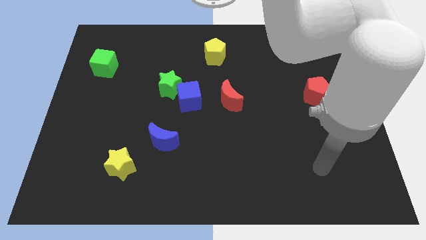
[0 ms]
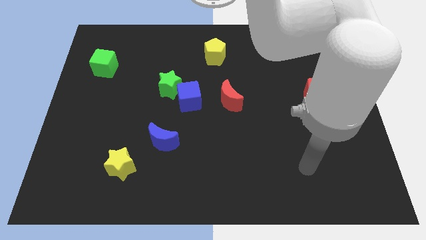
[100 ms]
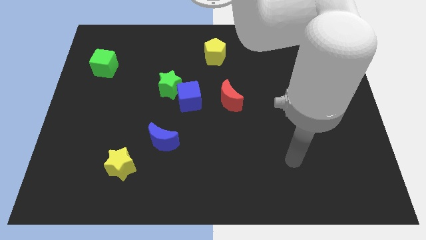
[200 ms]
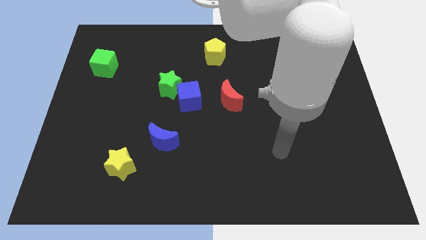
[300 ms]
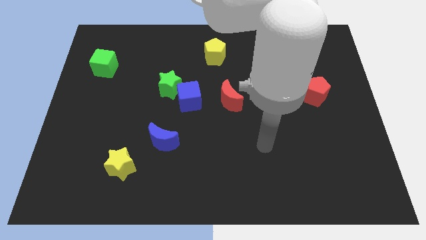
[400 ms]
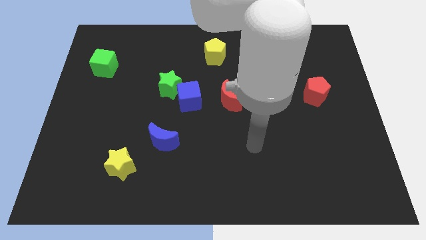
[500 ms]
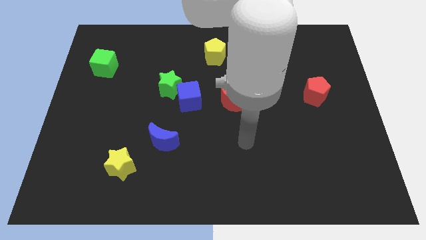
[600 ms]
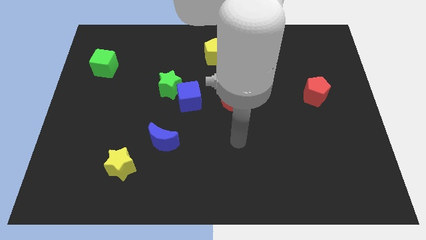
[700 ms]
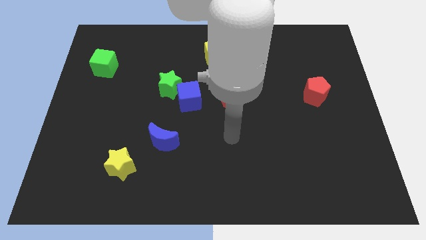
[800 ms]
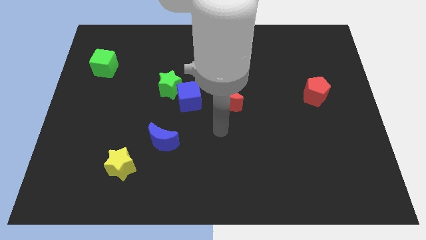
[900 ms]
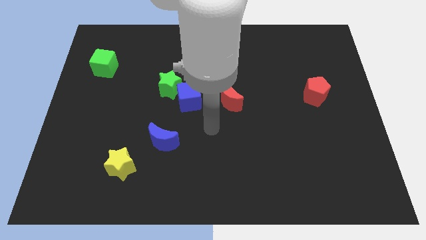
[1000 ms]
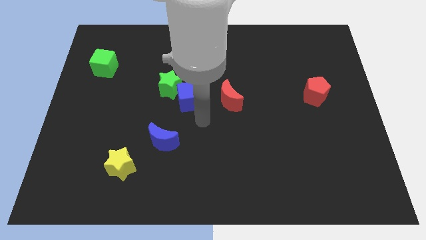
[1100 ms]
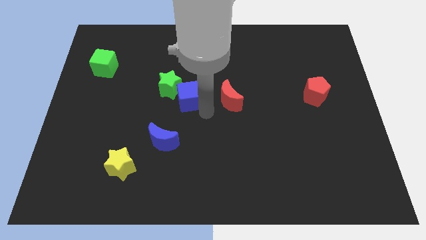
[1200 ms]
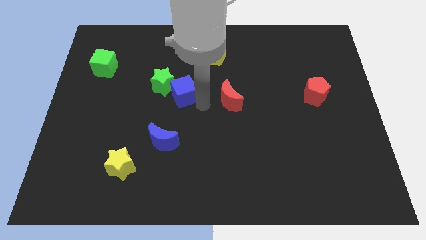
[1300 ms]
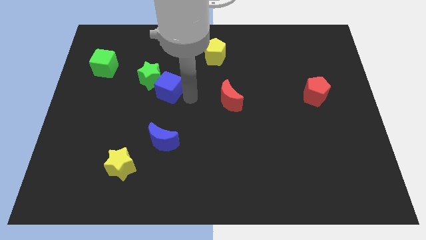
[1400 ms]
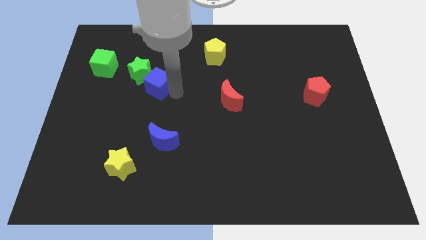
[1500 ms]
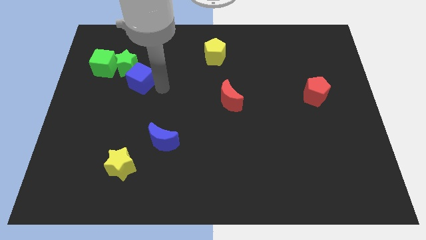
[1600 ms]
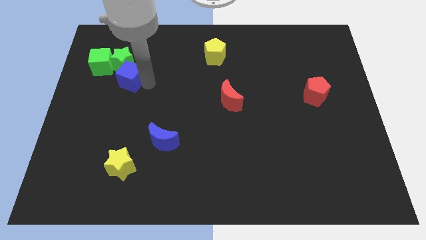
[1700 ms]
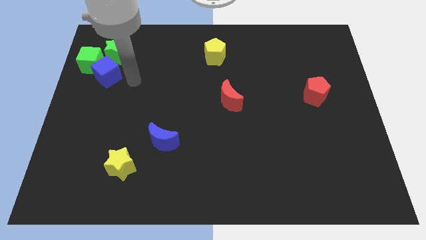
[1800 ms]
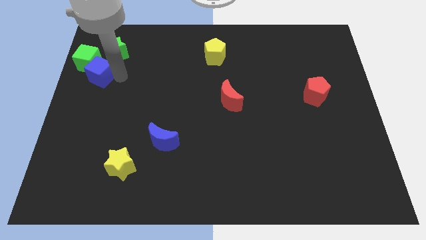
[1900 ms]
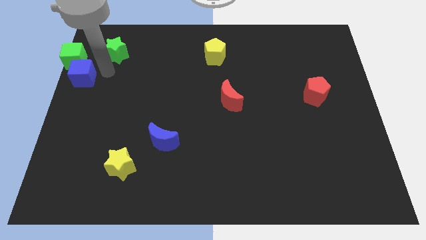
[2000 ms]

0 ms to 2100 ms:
move the green star away from the blue cube

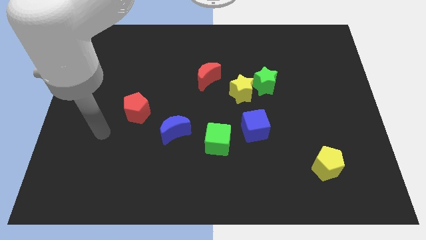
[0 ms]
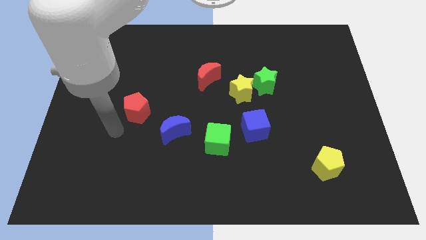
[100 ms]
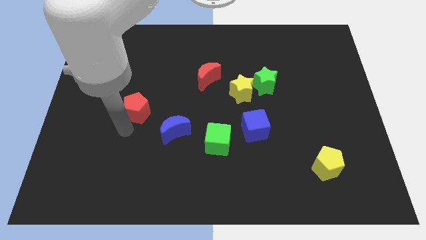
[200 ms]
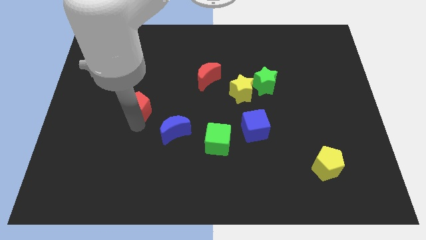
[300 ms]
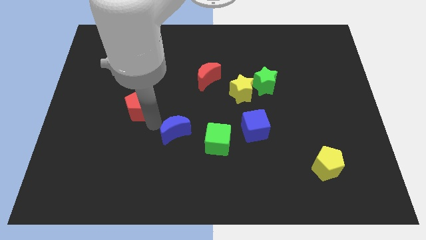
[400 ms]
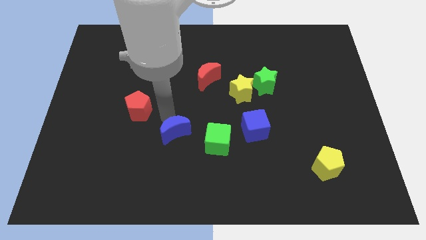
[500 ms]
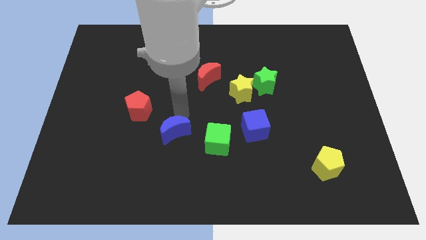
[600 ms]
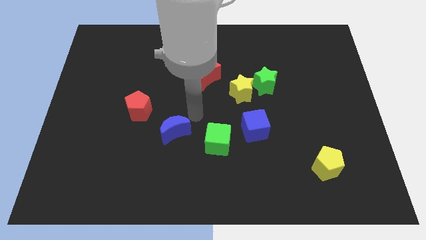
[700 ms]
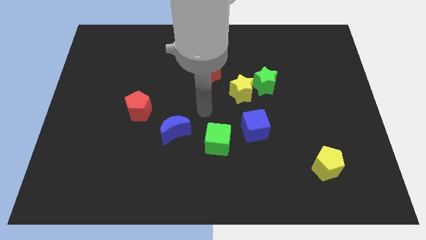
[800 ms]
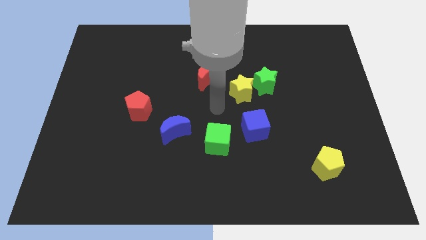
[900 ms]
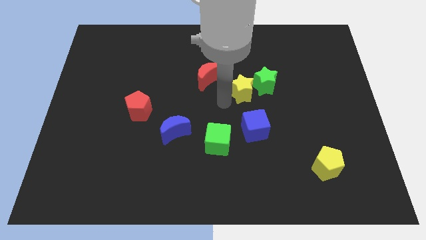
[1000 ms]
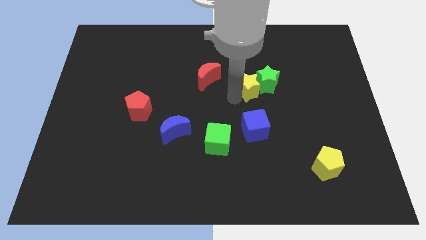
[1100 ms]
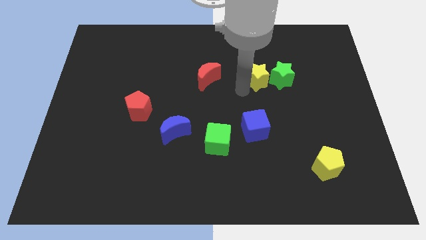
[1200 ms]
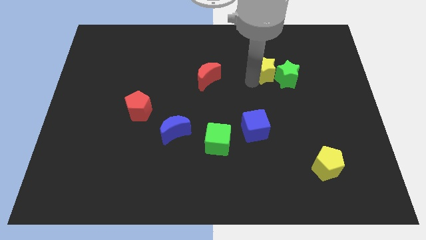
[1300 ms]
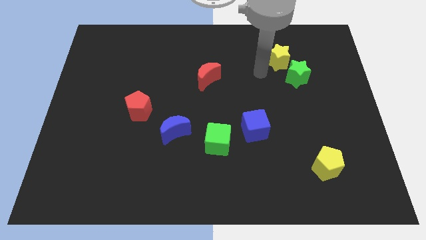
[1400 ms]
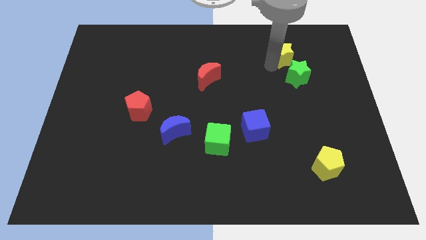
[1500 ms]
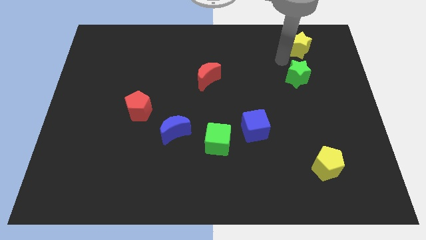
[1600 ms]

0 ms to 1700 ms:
separate the green star from the yellow star

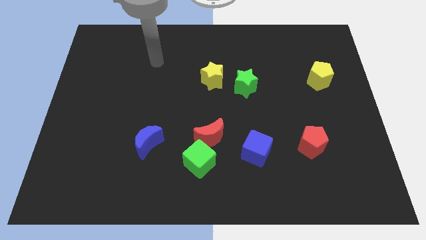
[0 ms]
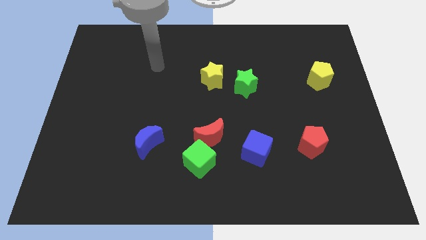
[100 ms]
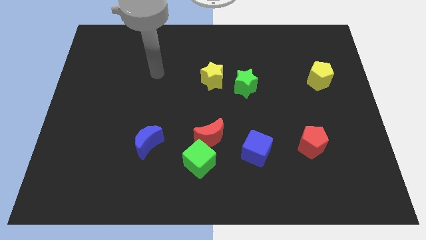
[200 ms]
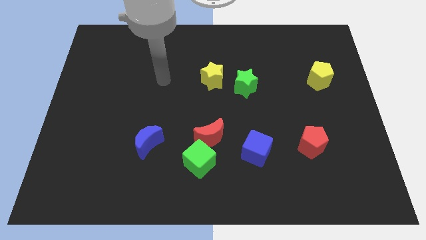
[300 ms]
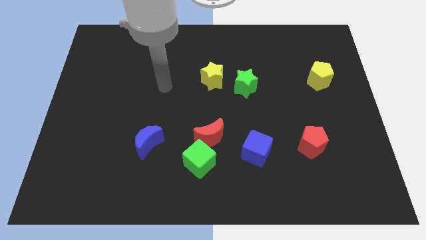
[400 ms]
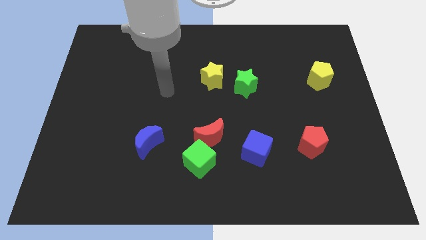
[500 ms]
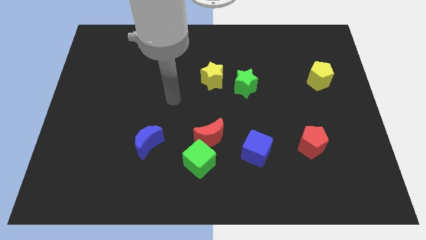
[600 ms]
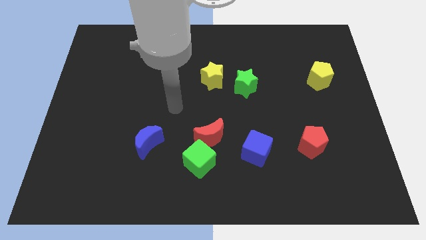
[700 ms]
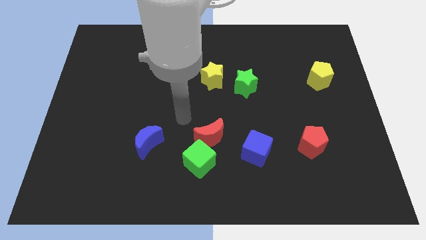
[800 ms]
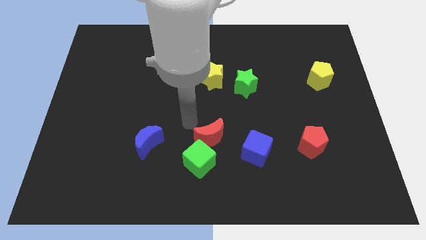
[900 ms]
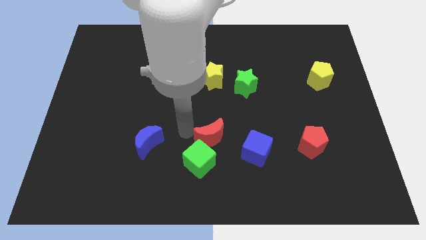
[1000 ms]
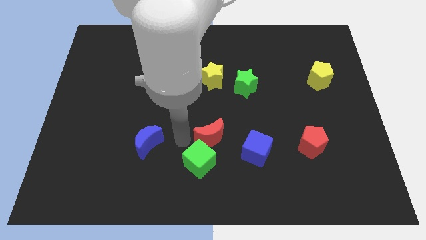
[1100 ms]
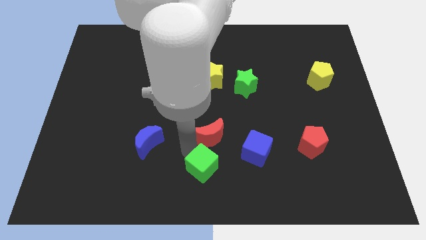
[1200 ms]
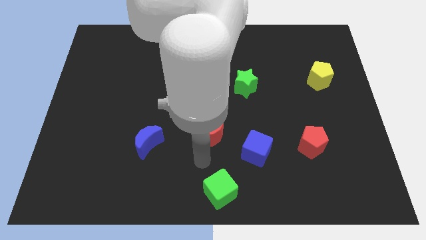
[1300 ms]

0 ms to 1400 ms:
pull the red moon apart from the green cube

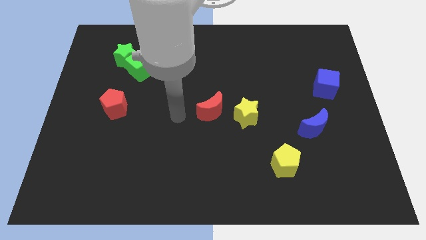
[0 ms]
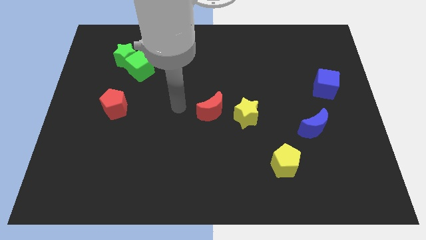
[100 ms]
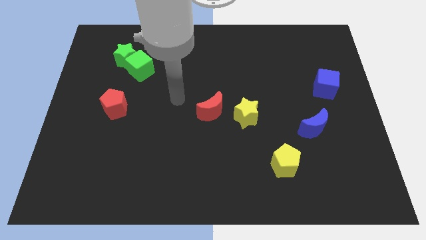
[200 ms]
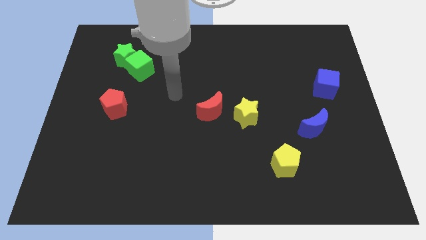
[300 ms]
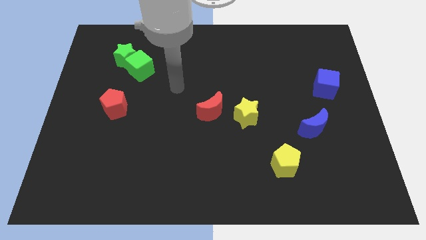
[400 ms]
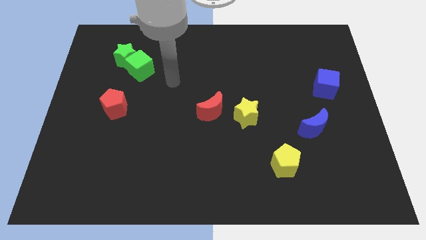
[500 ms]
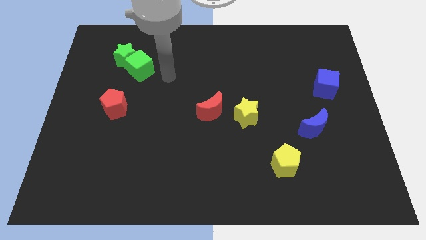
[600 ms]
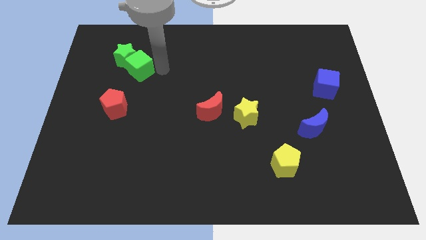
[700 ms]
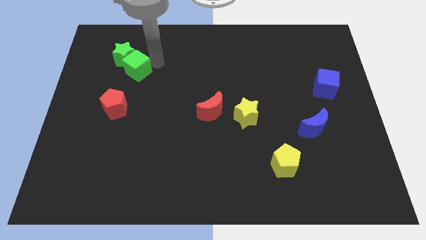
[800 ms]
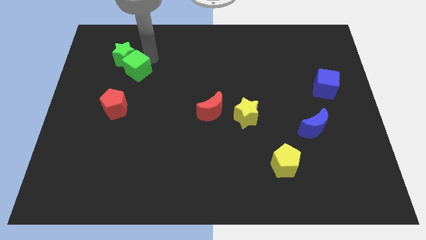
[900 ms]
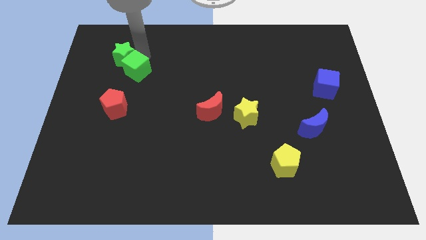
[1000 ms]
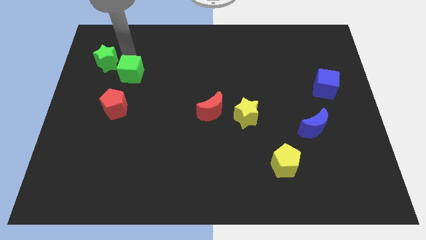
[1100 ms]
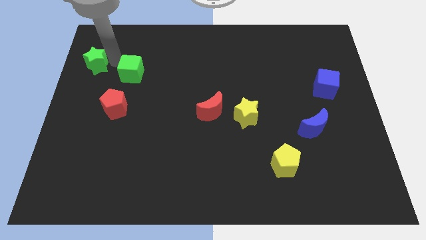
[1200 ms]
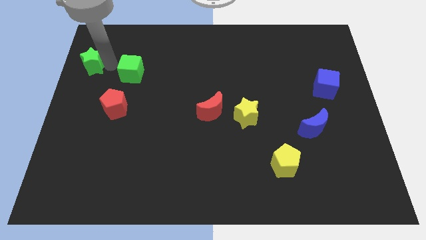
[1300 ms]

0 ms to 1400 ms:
move the green cube away from the green star

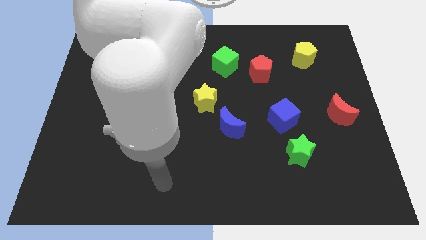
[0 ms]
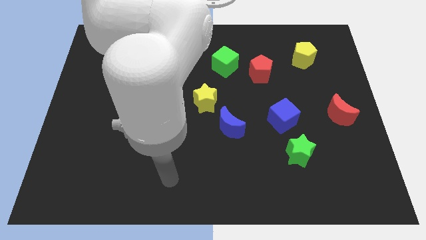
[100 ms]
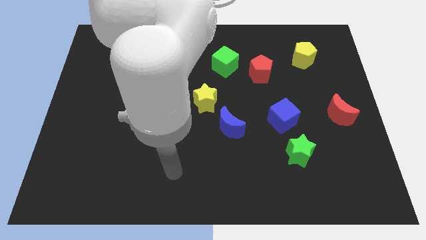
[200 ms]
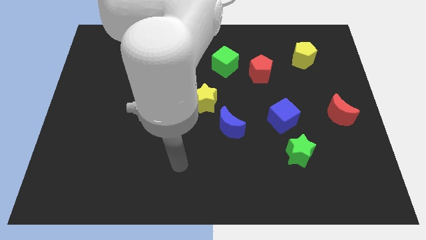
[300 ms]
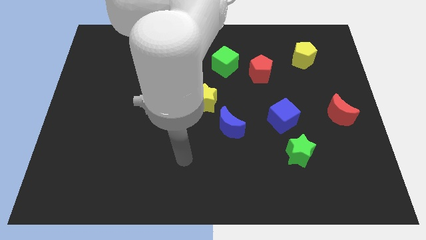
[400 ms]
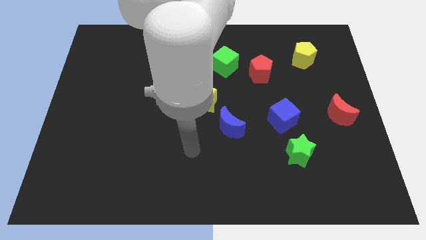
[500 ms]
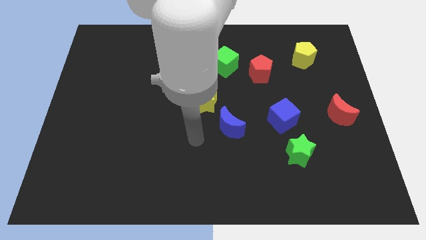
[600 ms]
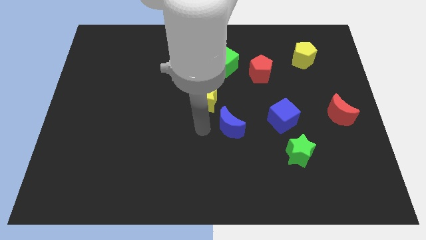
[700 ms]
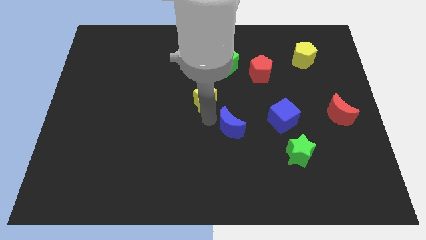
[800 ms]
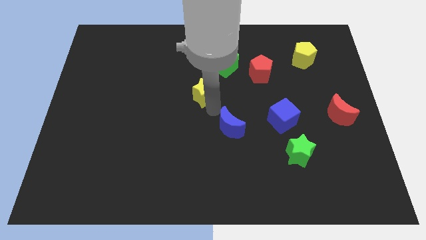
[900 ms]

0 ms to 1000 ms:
move the blue moon away from the yellow star

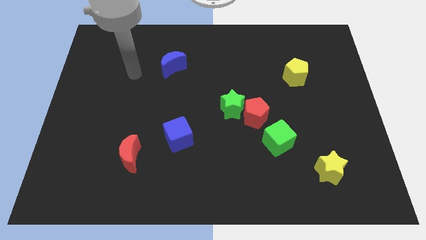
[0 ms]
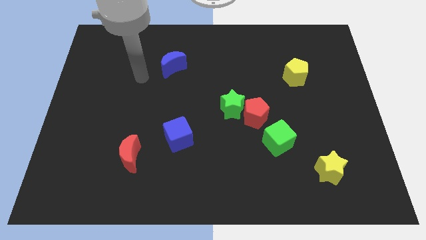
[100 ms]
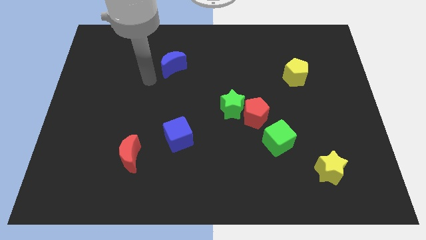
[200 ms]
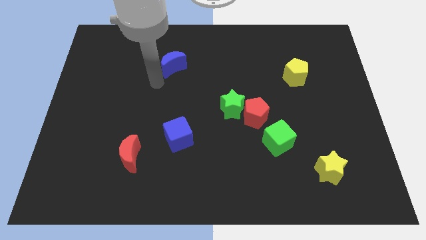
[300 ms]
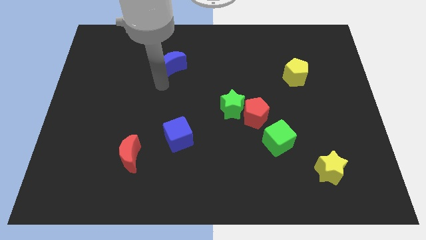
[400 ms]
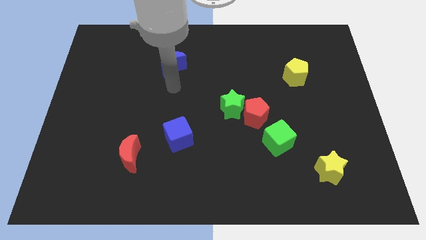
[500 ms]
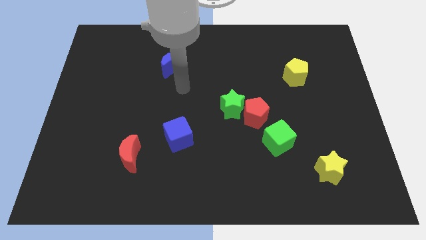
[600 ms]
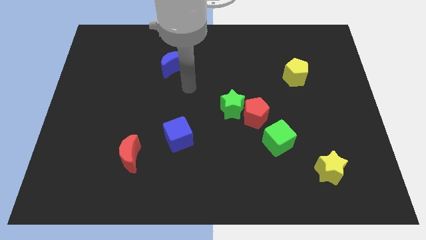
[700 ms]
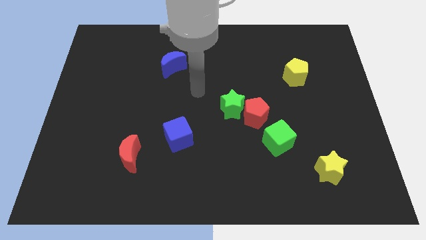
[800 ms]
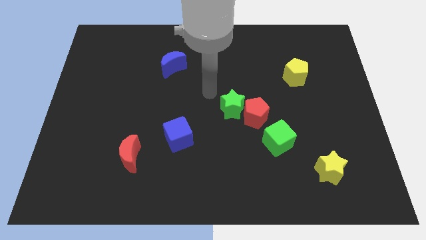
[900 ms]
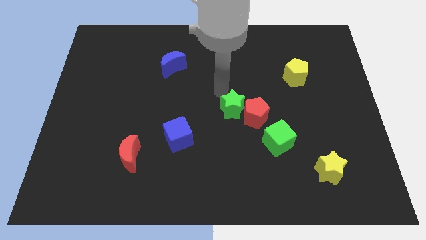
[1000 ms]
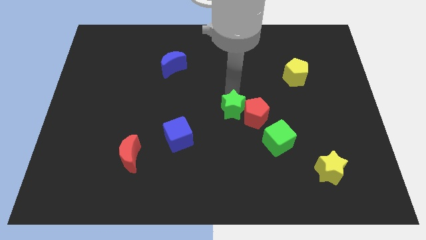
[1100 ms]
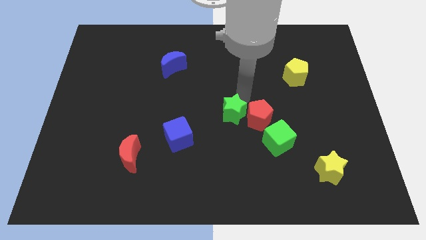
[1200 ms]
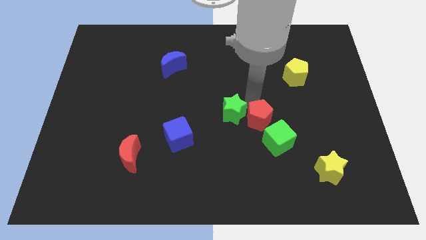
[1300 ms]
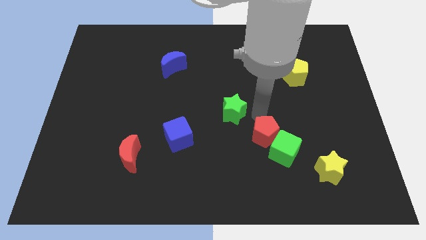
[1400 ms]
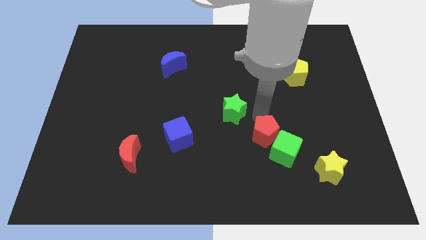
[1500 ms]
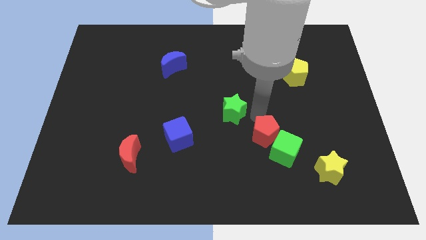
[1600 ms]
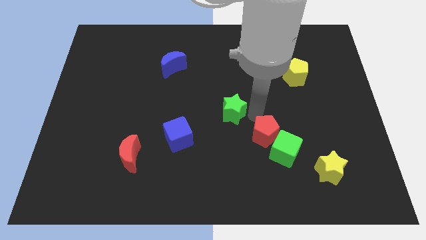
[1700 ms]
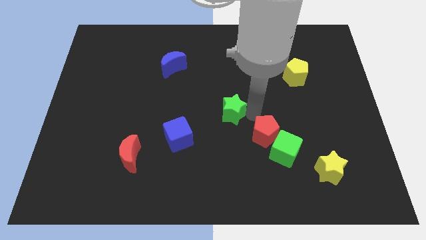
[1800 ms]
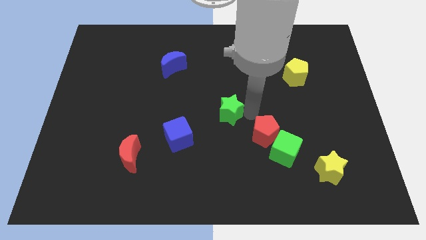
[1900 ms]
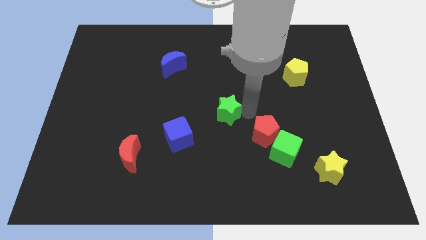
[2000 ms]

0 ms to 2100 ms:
separate the green star from the red pentagon
